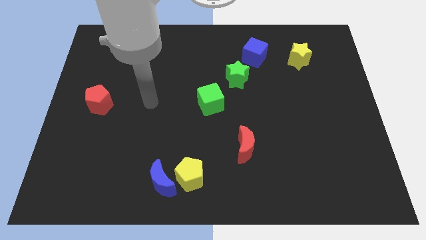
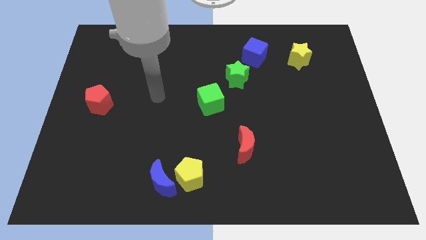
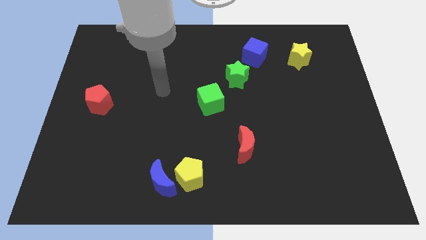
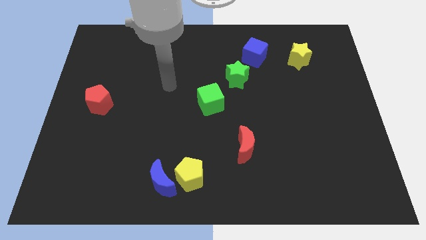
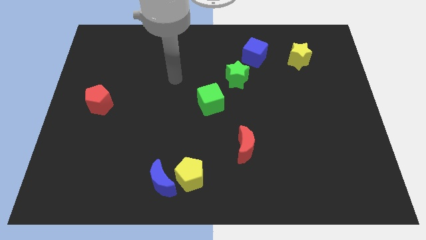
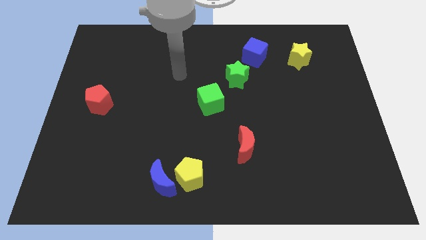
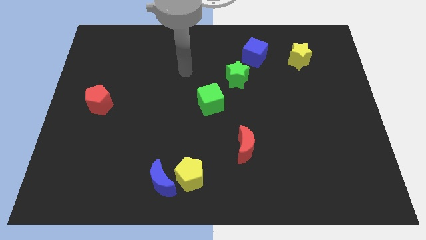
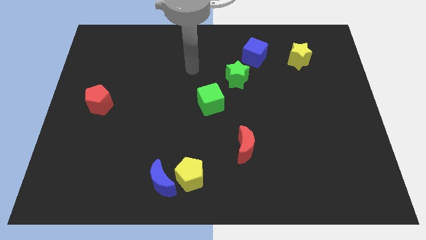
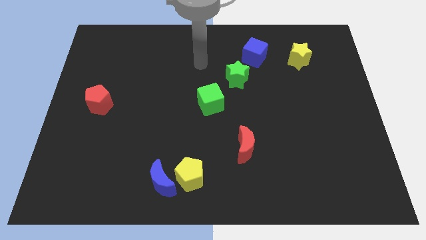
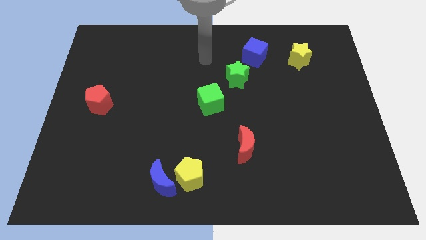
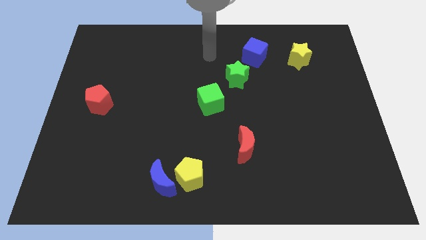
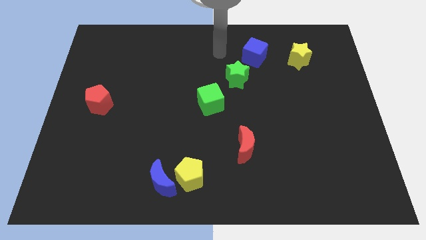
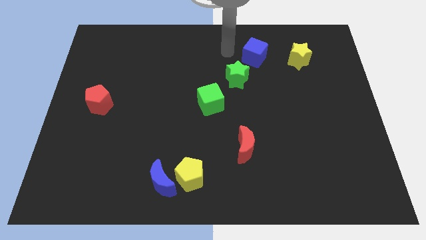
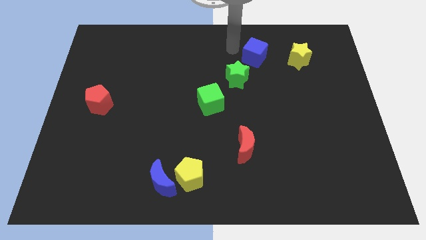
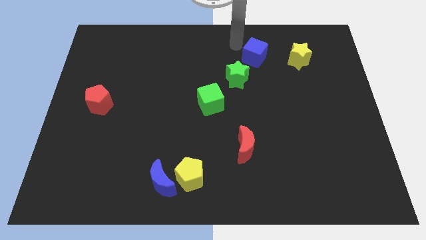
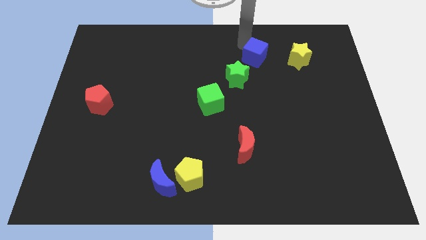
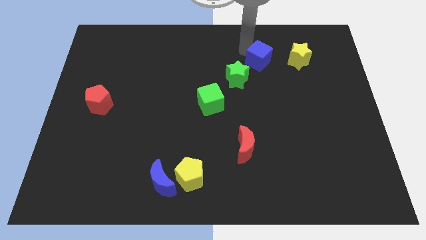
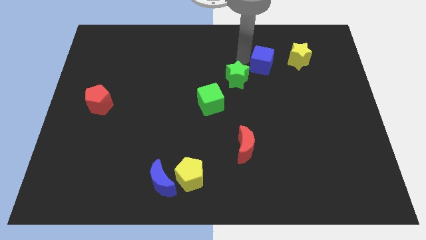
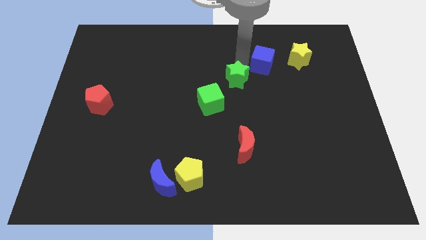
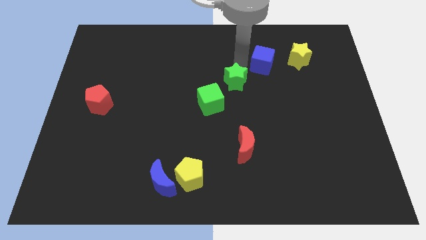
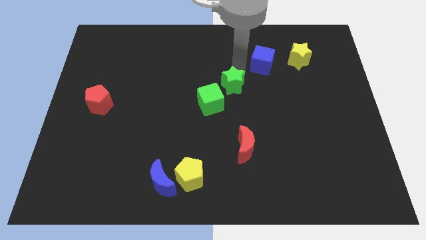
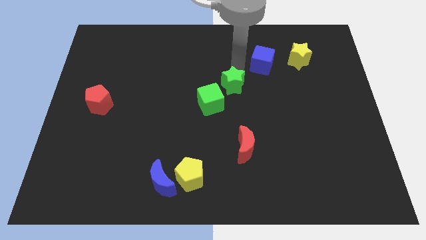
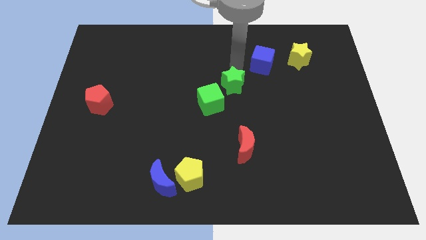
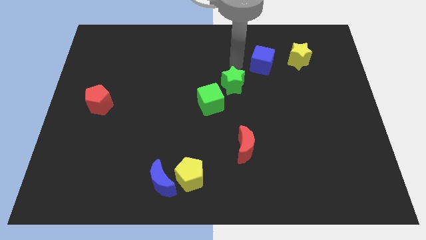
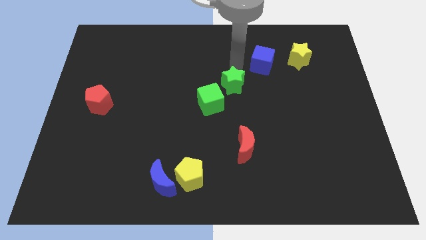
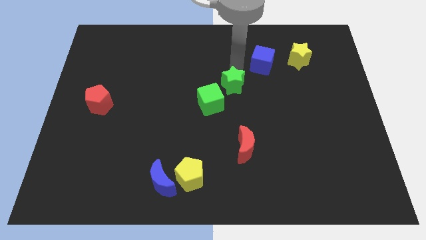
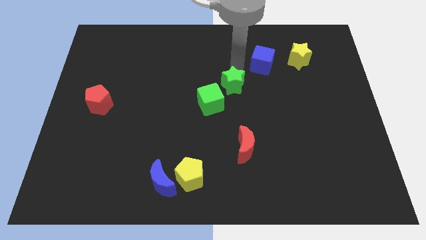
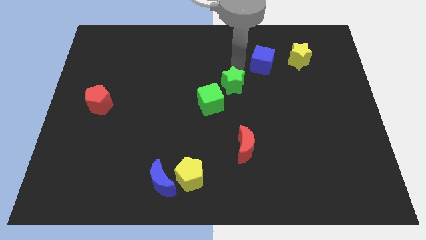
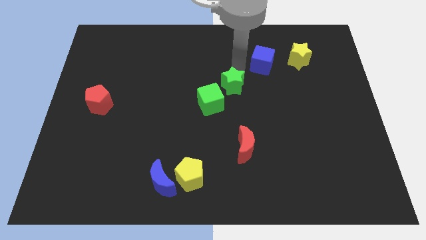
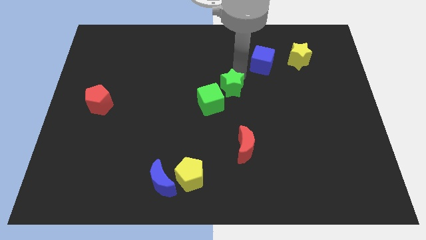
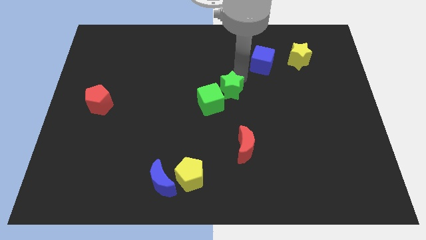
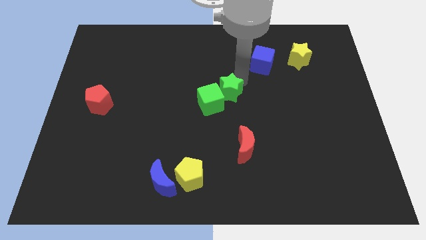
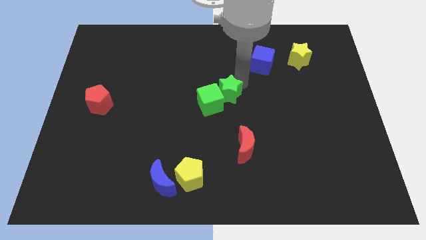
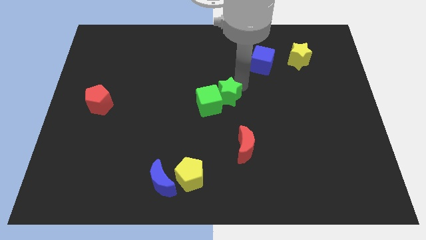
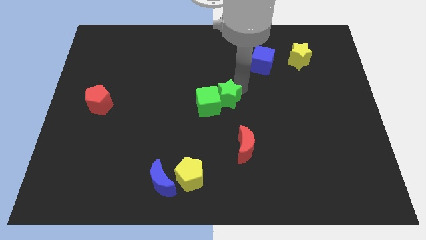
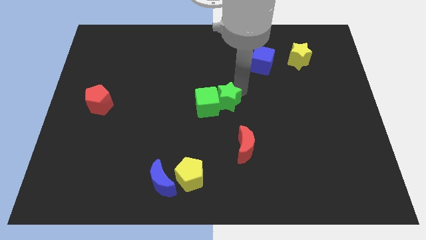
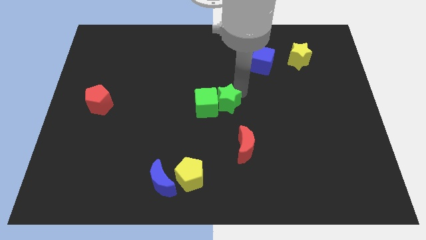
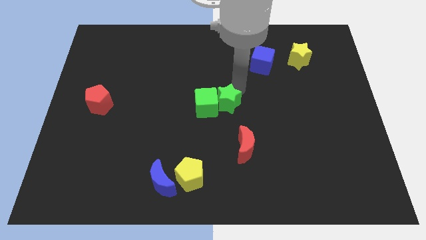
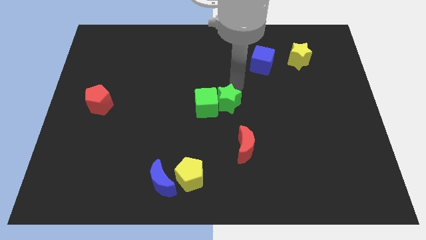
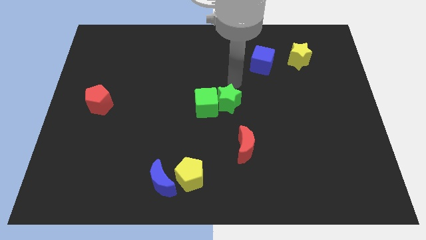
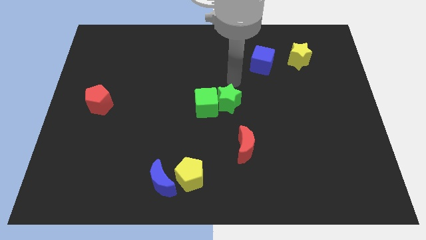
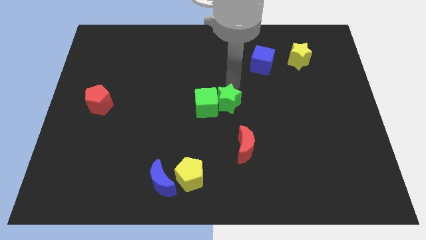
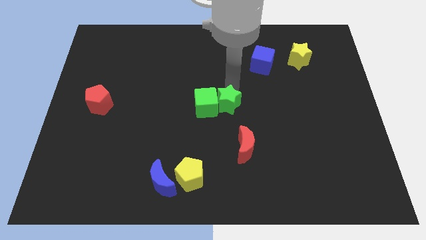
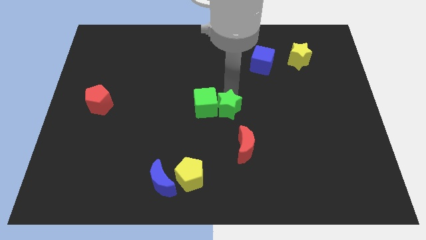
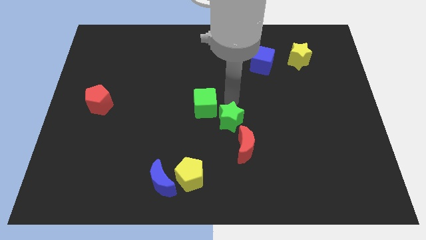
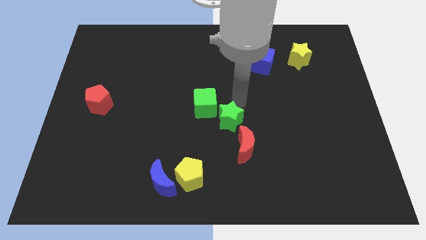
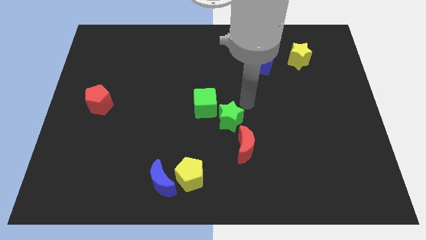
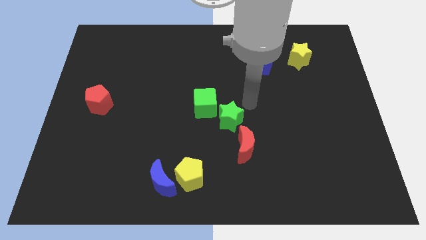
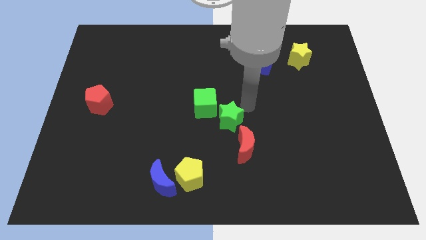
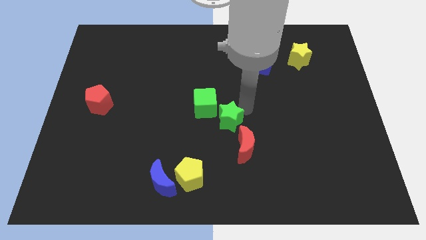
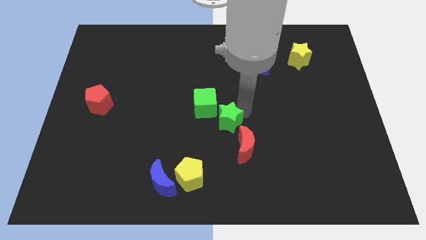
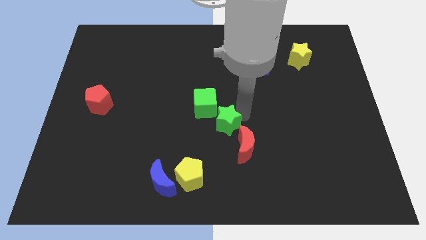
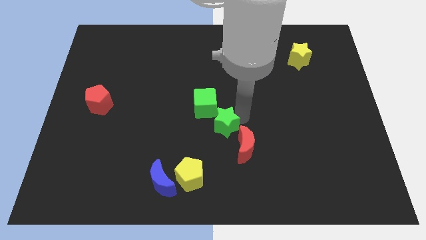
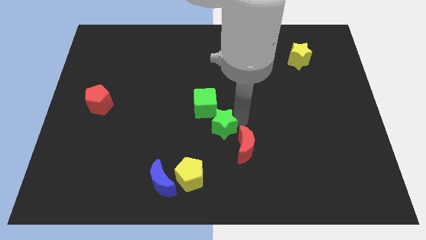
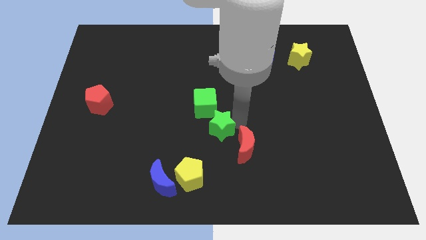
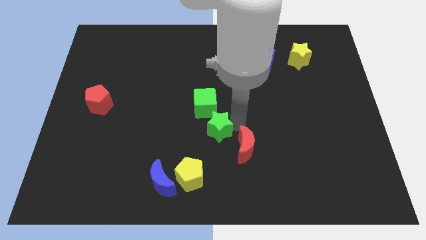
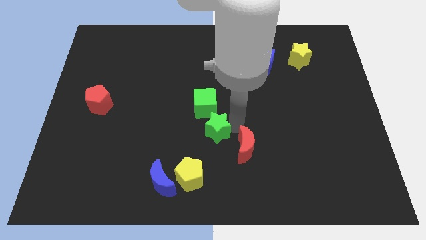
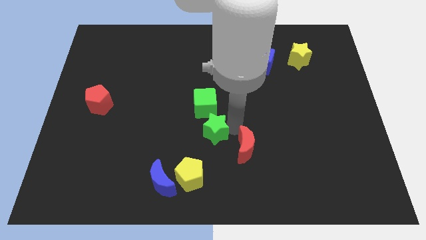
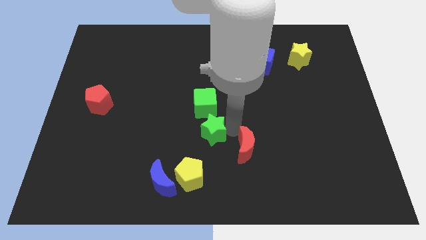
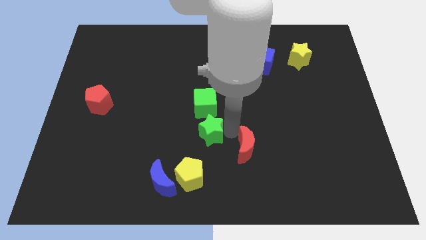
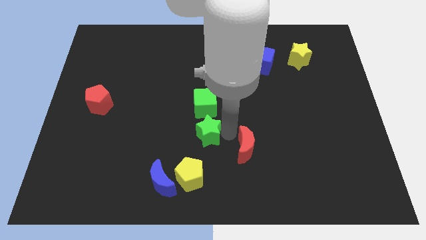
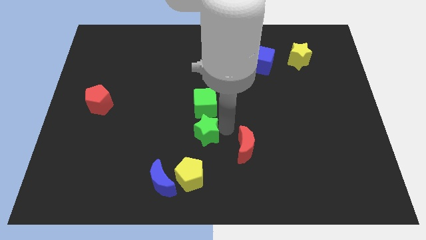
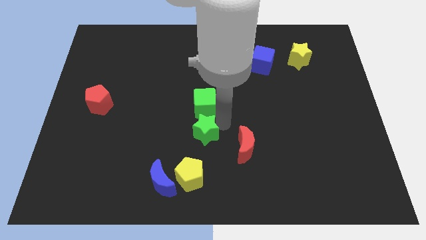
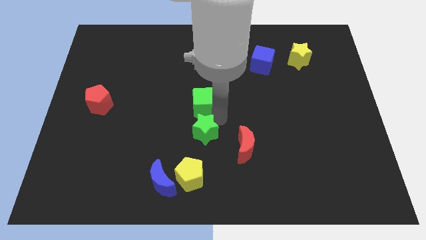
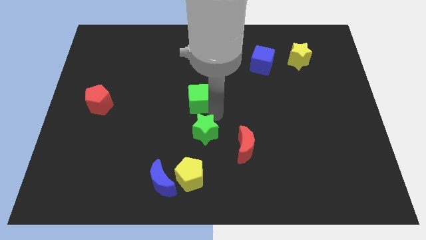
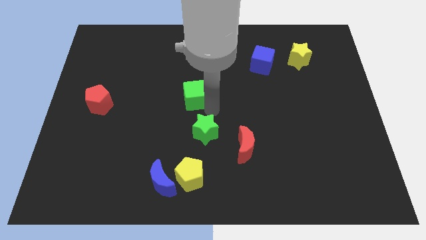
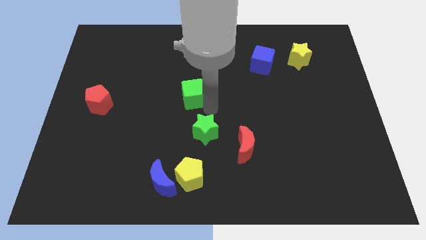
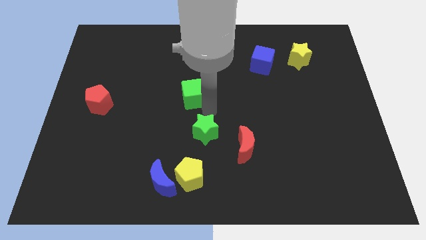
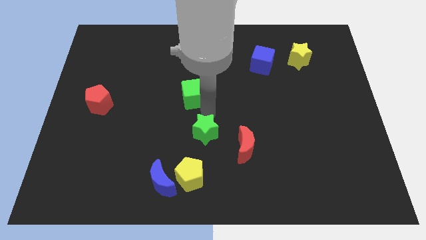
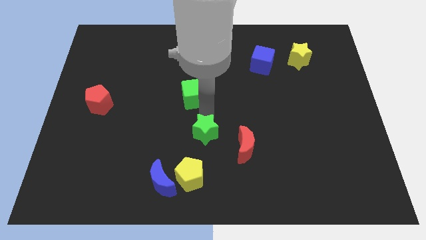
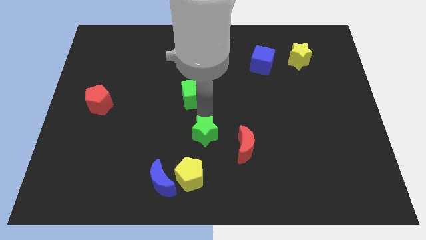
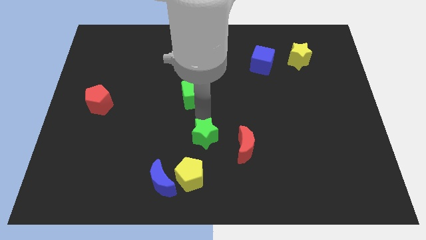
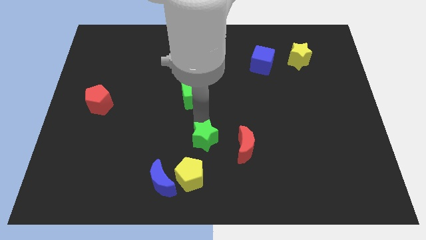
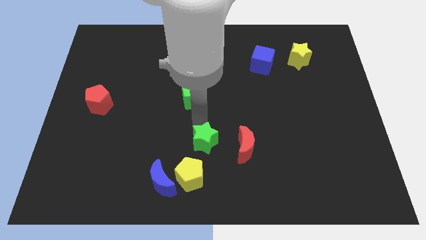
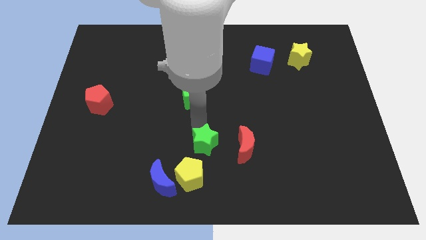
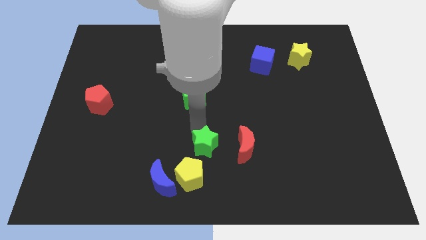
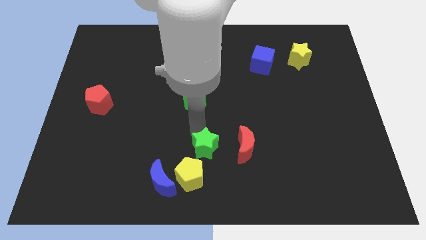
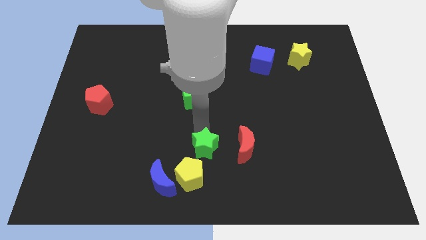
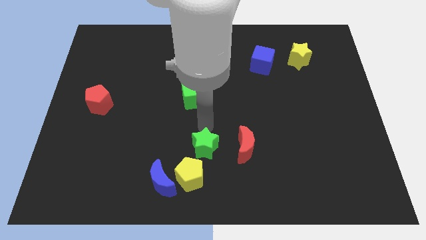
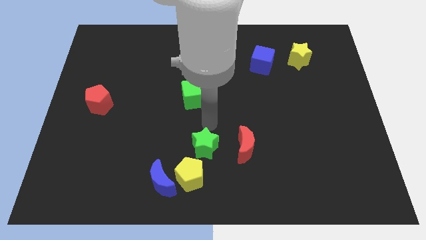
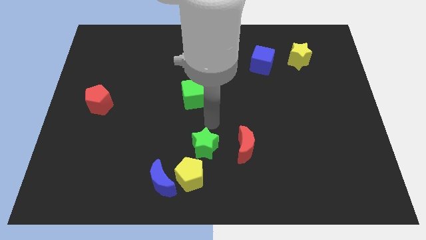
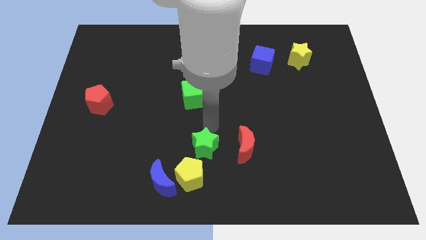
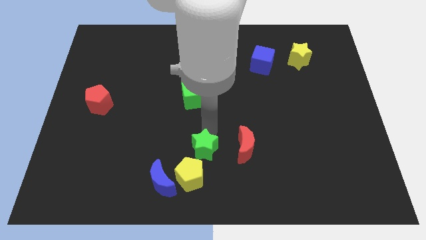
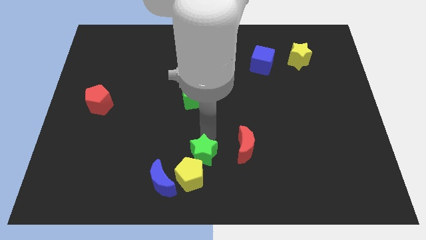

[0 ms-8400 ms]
slide the green star to the yellow pentagon
